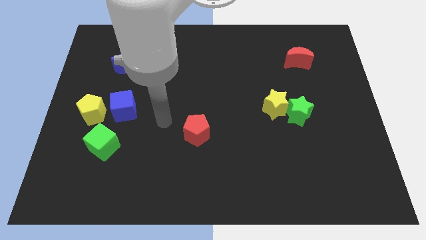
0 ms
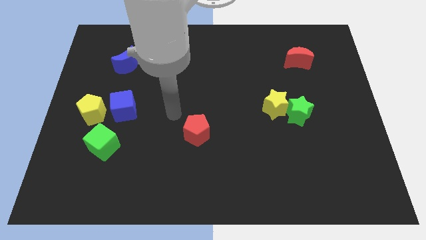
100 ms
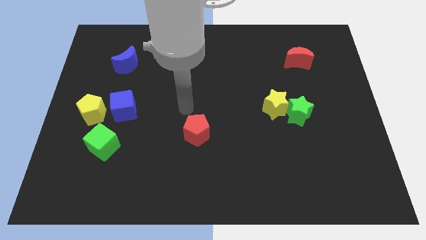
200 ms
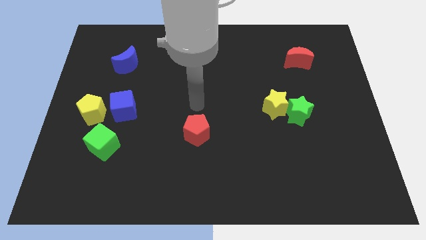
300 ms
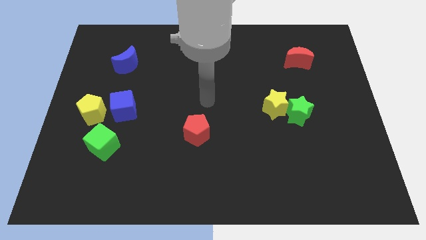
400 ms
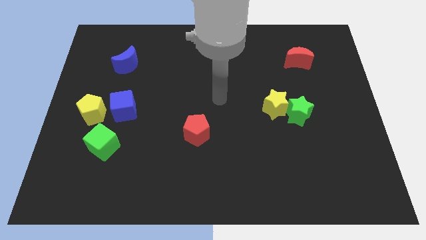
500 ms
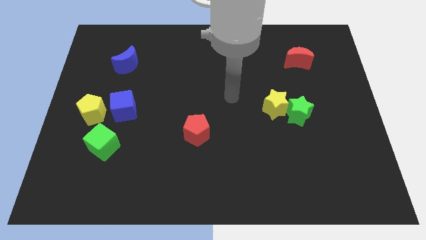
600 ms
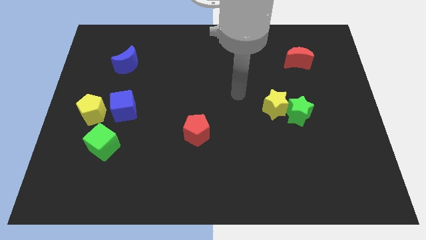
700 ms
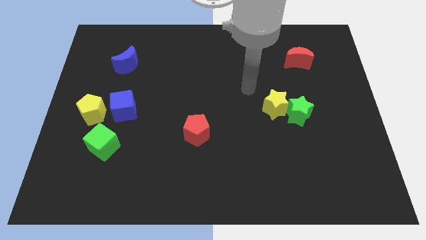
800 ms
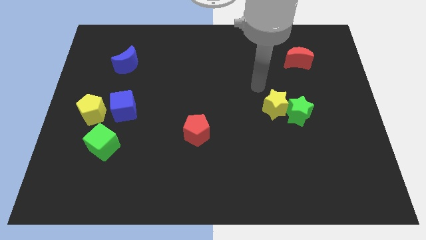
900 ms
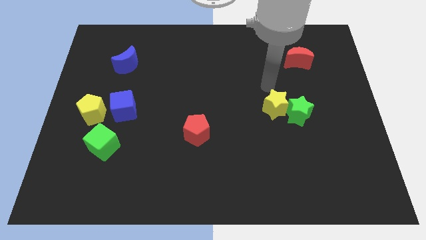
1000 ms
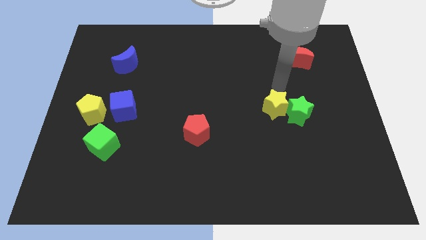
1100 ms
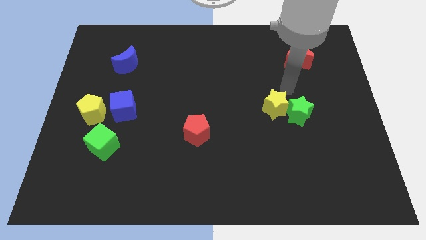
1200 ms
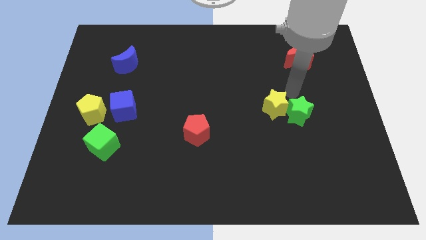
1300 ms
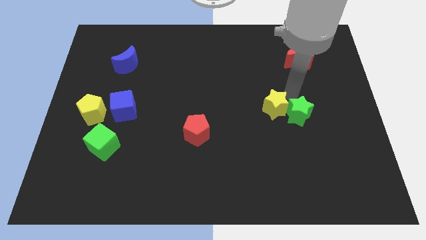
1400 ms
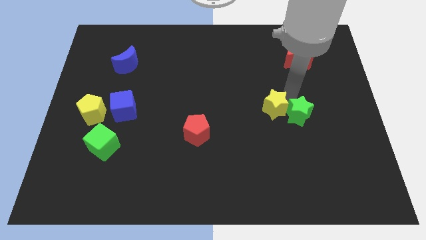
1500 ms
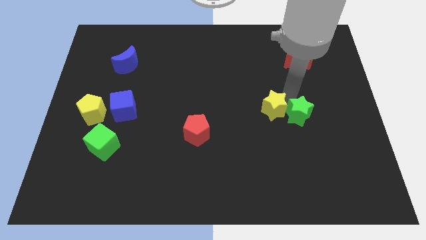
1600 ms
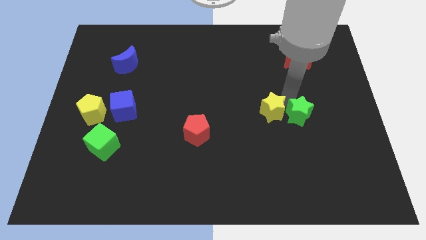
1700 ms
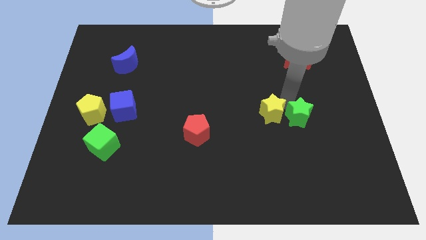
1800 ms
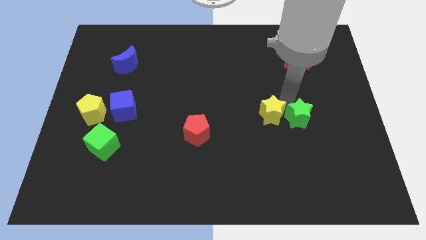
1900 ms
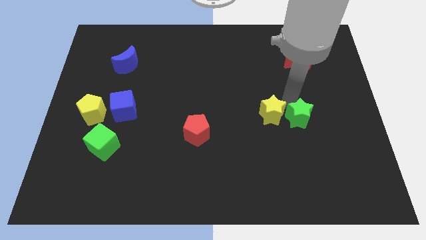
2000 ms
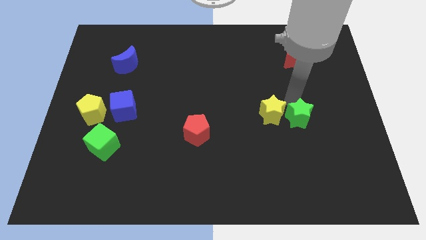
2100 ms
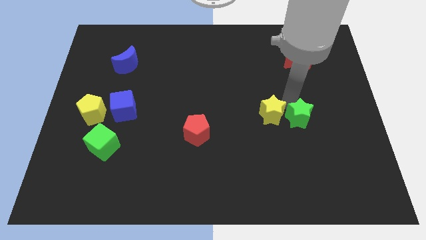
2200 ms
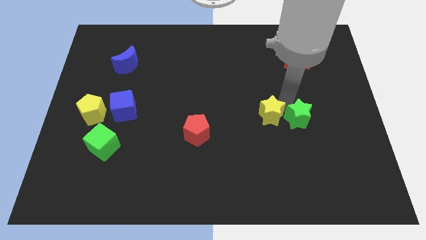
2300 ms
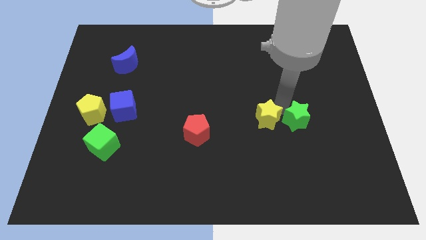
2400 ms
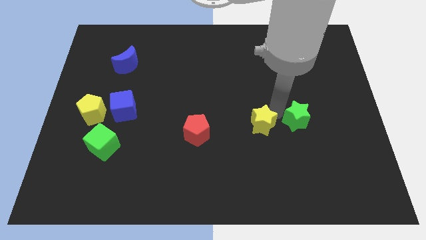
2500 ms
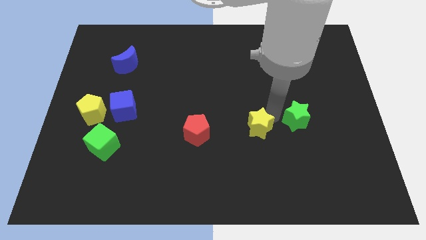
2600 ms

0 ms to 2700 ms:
slide the yellow star down and then to the left a little

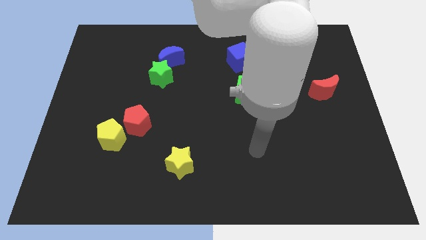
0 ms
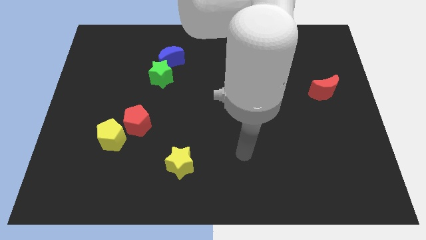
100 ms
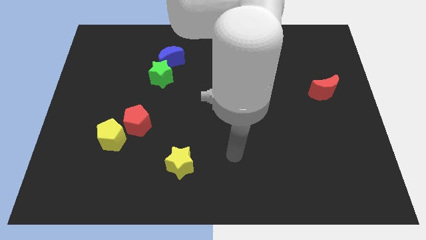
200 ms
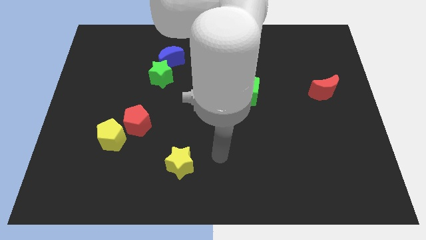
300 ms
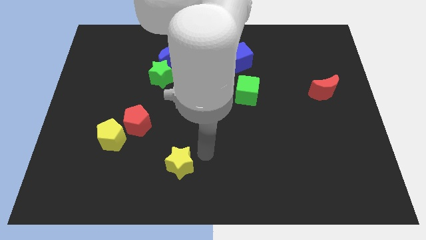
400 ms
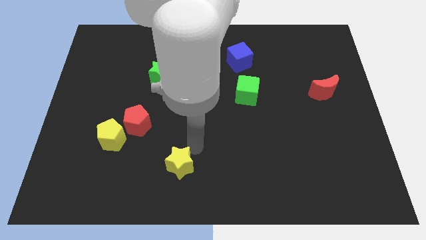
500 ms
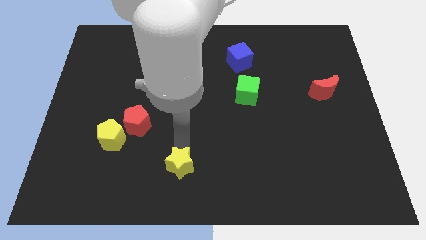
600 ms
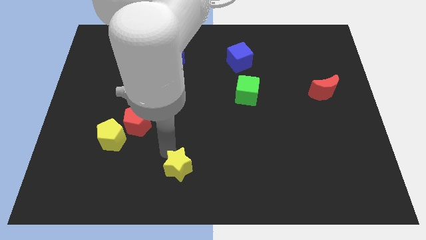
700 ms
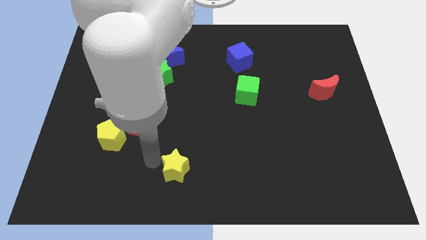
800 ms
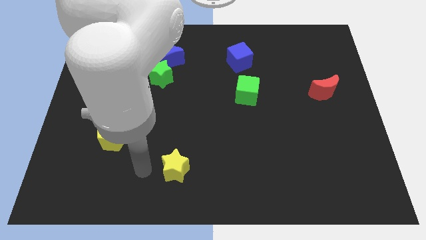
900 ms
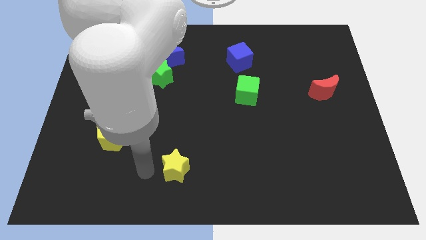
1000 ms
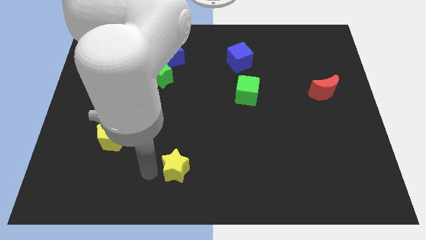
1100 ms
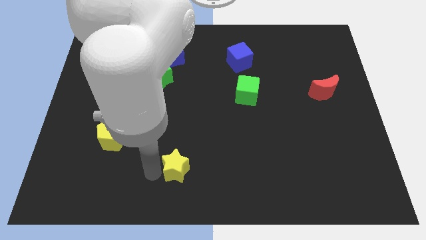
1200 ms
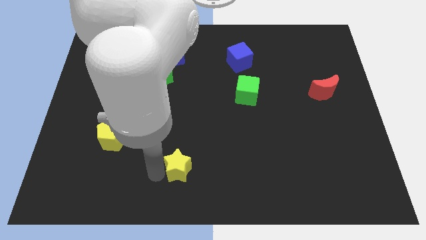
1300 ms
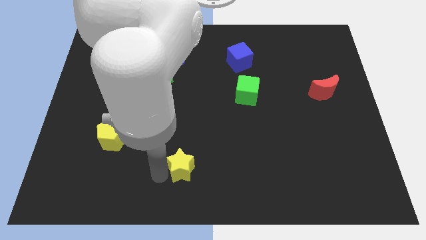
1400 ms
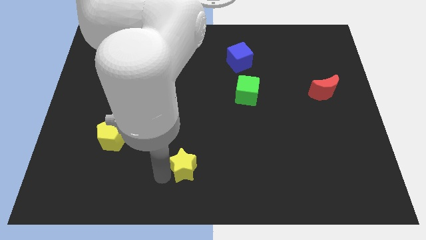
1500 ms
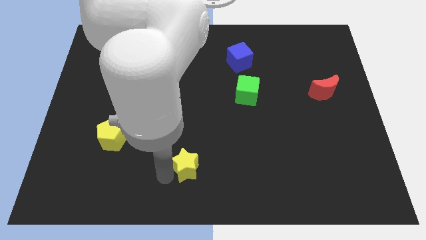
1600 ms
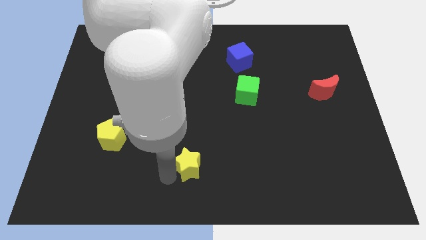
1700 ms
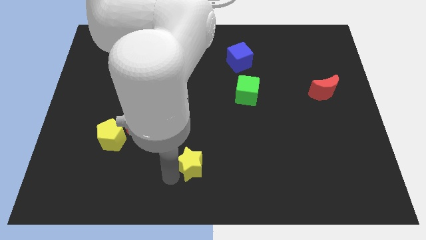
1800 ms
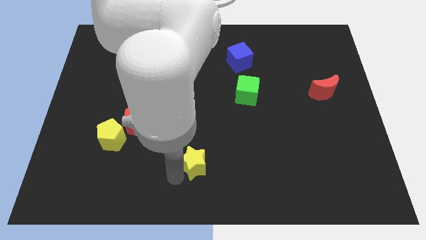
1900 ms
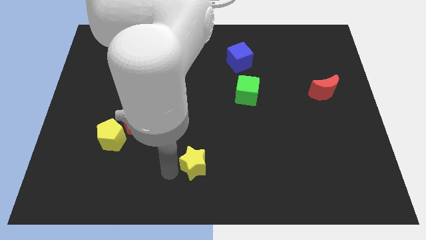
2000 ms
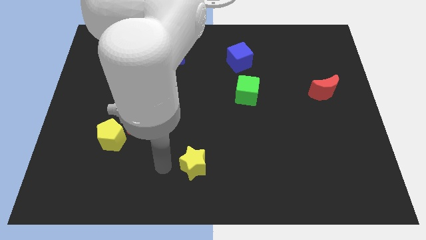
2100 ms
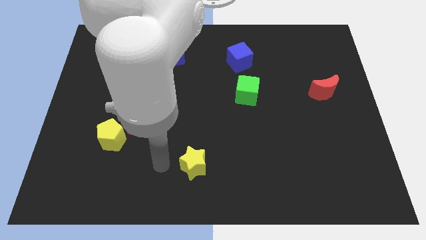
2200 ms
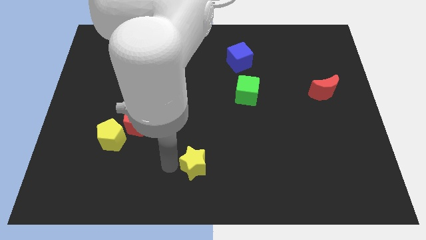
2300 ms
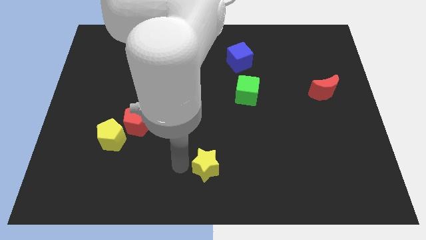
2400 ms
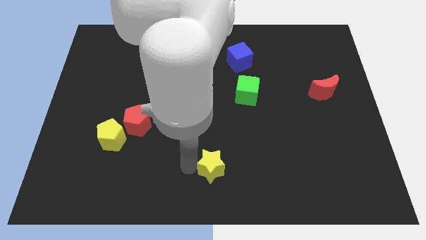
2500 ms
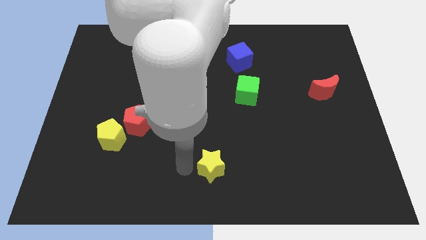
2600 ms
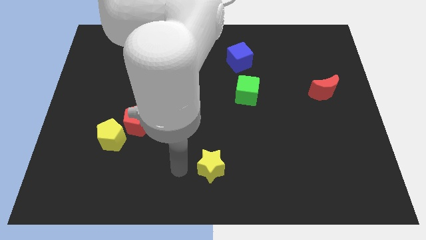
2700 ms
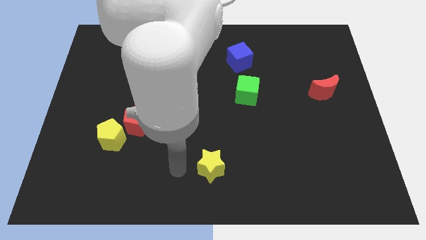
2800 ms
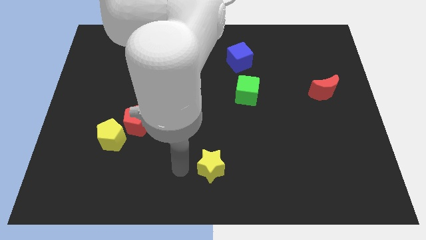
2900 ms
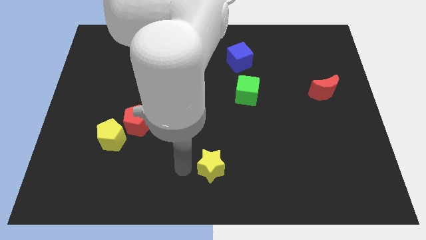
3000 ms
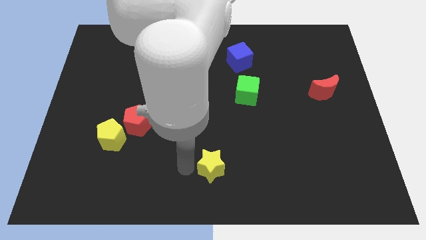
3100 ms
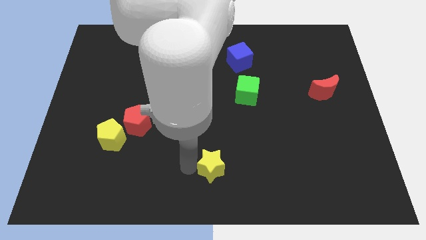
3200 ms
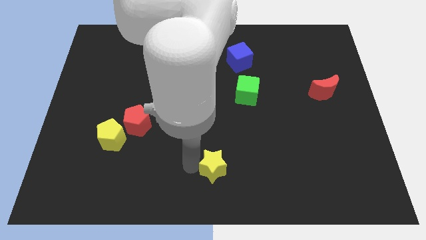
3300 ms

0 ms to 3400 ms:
slightly move the yellow star right

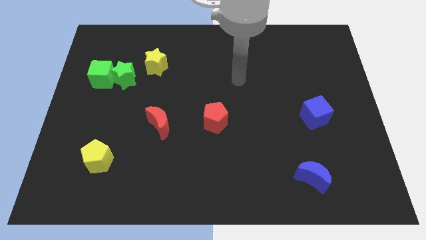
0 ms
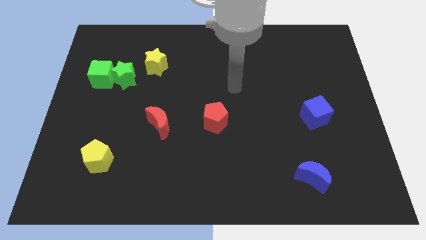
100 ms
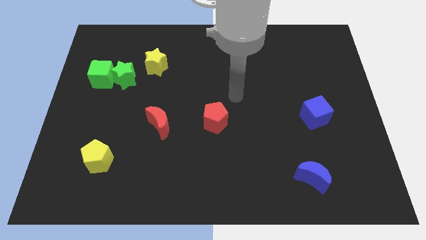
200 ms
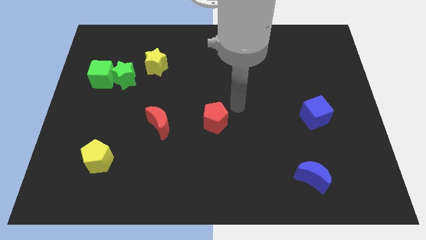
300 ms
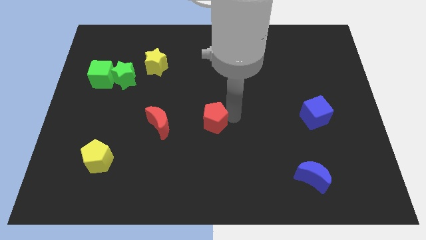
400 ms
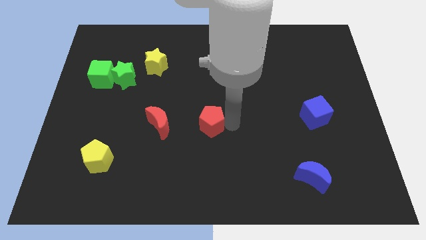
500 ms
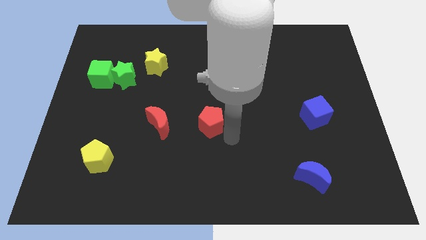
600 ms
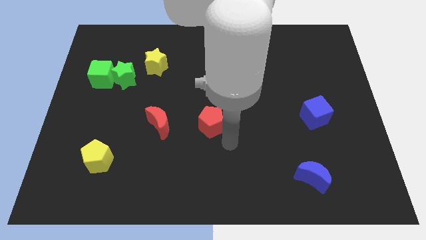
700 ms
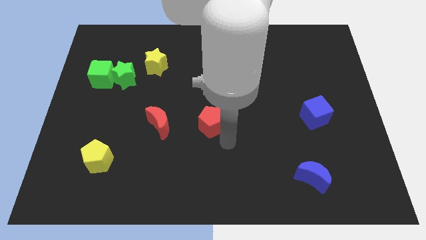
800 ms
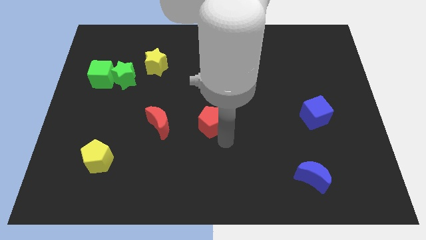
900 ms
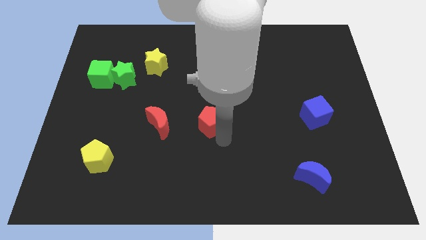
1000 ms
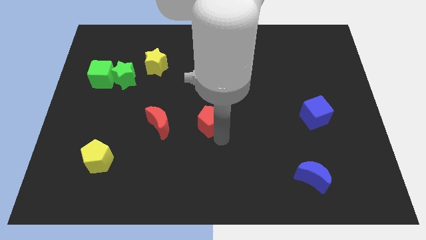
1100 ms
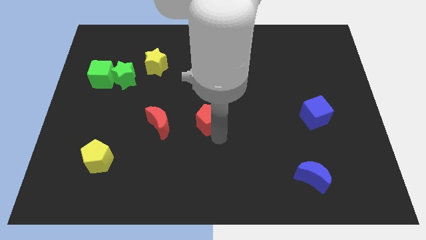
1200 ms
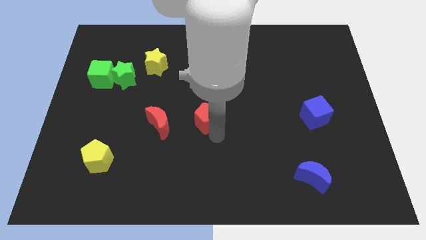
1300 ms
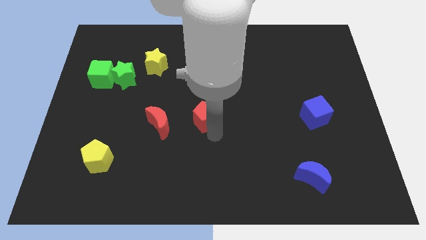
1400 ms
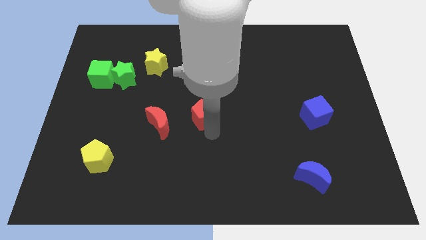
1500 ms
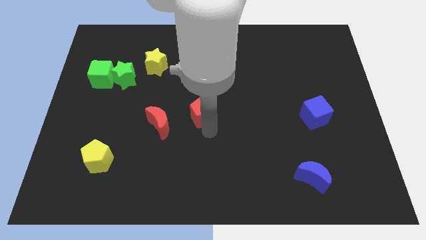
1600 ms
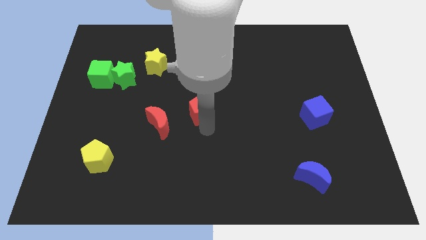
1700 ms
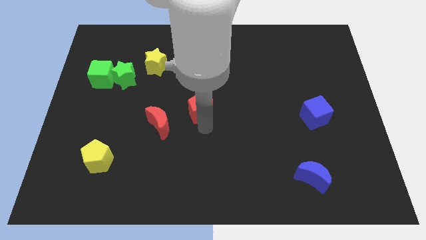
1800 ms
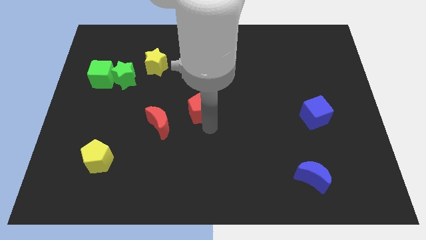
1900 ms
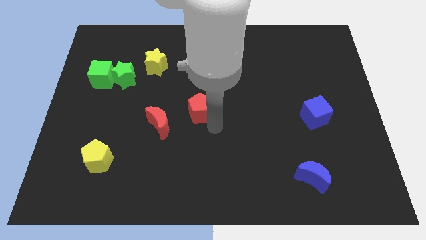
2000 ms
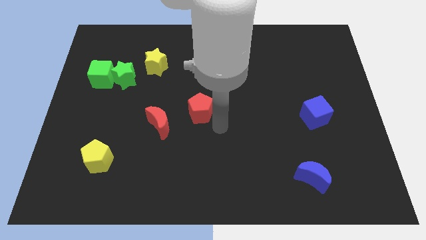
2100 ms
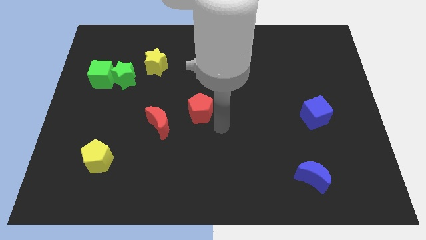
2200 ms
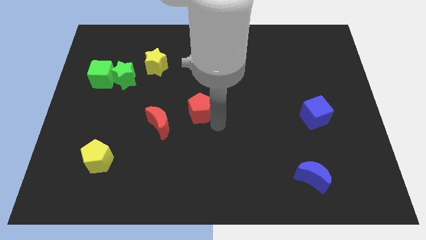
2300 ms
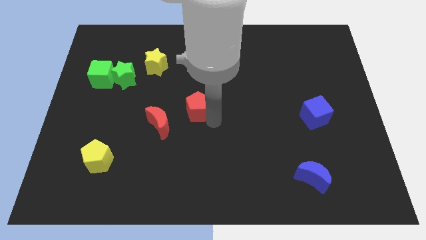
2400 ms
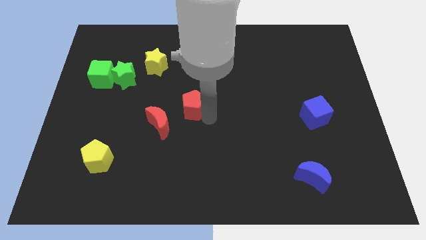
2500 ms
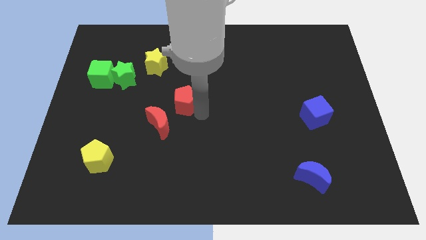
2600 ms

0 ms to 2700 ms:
slide the red pentagon diagonally up and left a little
